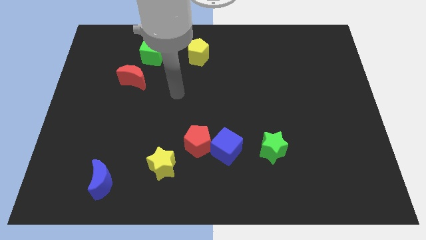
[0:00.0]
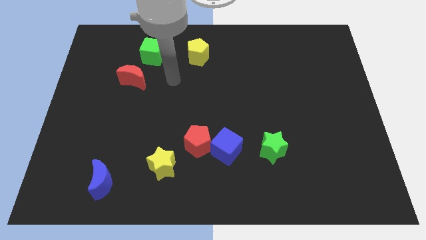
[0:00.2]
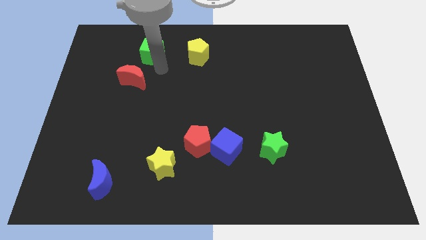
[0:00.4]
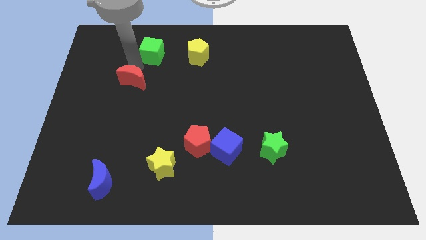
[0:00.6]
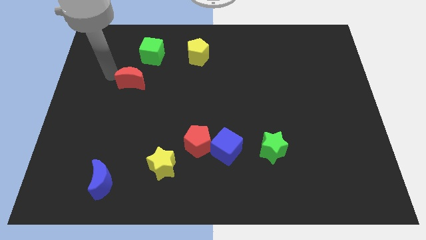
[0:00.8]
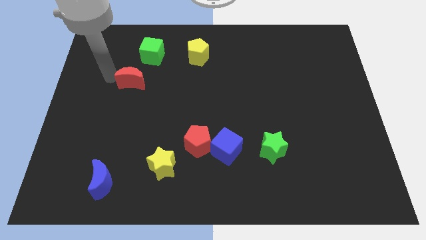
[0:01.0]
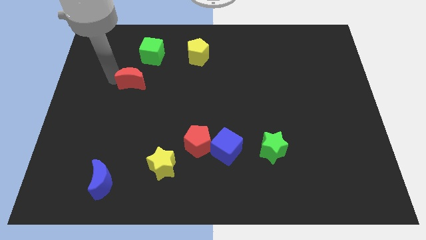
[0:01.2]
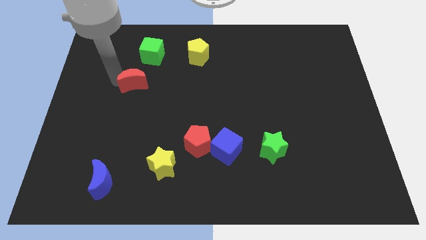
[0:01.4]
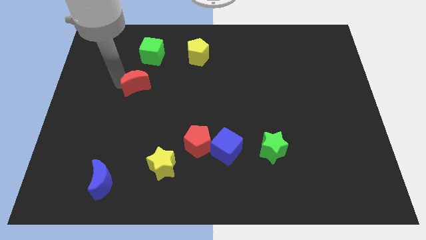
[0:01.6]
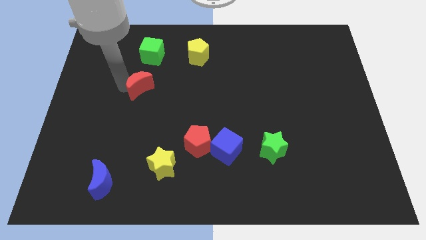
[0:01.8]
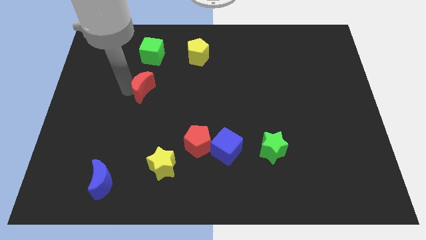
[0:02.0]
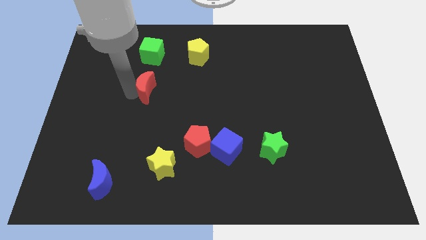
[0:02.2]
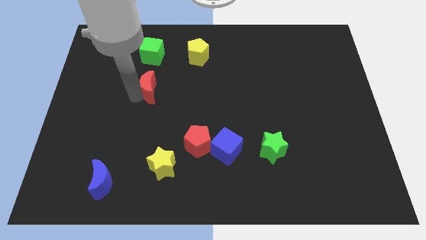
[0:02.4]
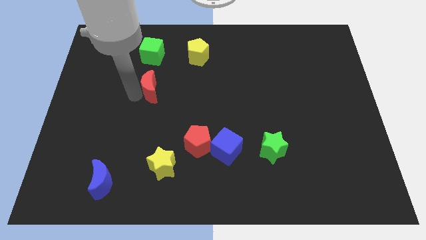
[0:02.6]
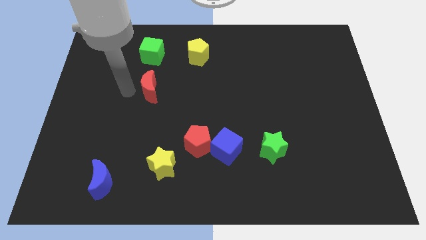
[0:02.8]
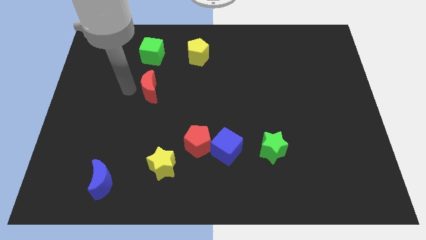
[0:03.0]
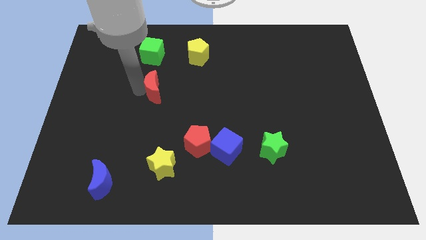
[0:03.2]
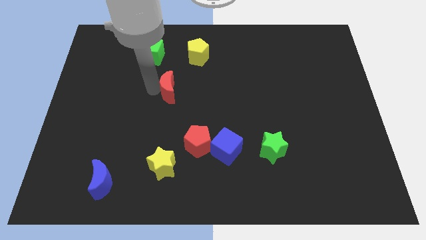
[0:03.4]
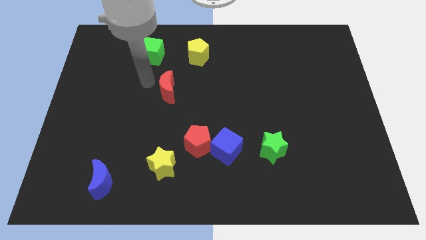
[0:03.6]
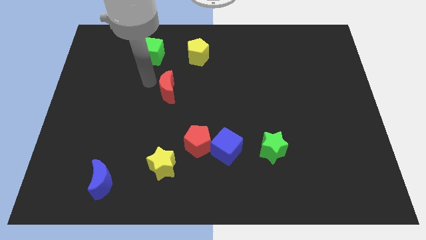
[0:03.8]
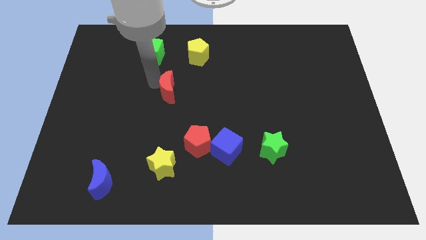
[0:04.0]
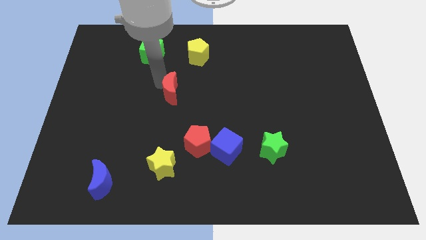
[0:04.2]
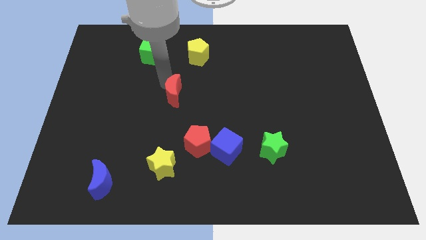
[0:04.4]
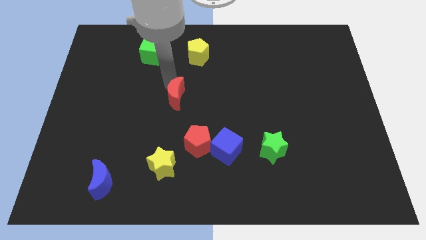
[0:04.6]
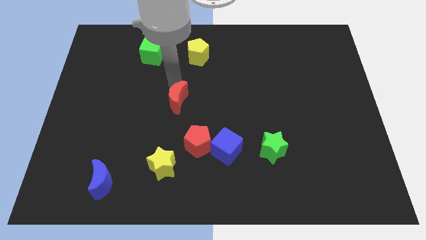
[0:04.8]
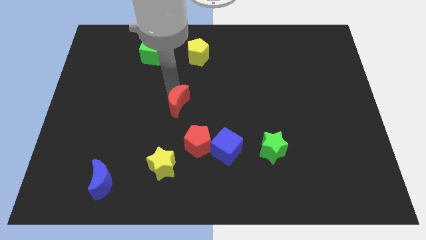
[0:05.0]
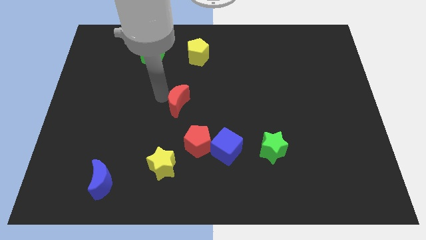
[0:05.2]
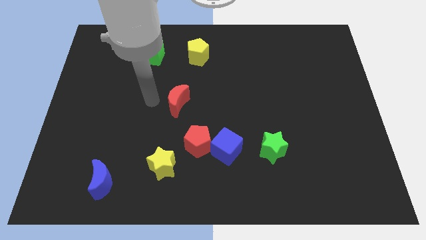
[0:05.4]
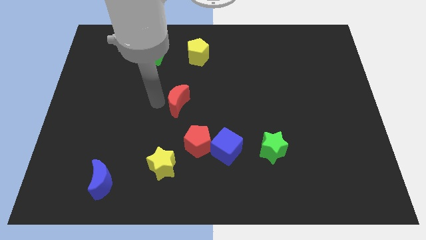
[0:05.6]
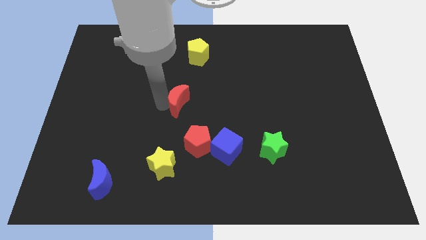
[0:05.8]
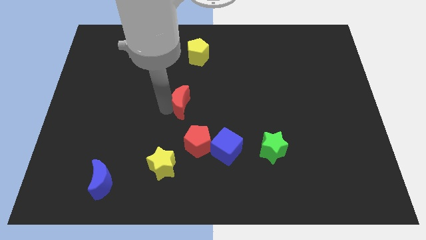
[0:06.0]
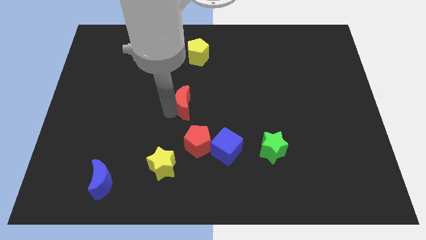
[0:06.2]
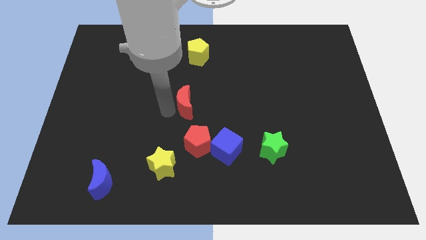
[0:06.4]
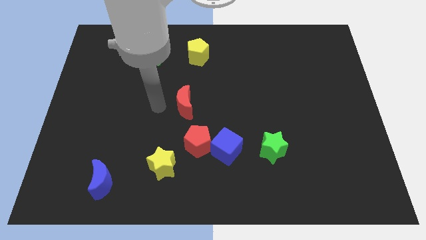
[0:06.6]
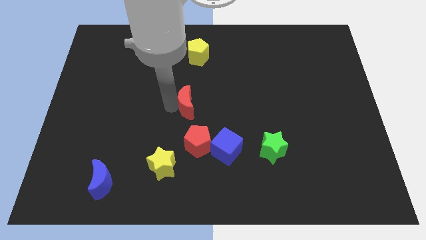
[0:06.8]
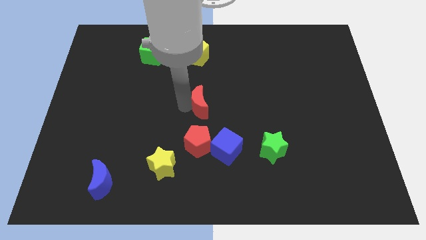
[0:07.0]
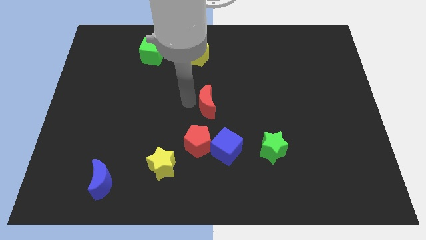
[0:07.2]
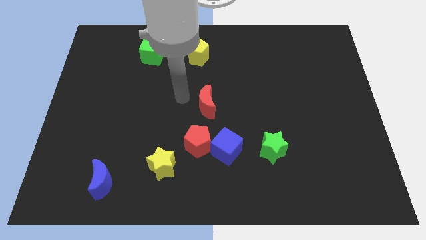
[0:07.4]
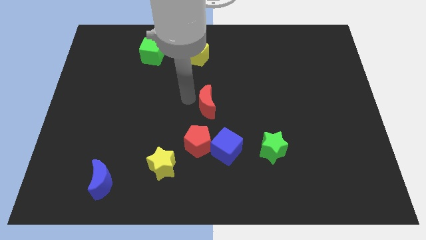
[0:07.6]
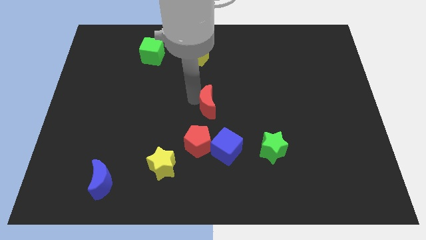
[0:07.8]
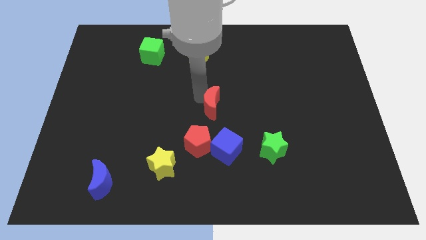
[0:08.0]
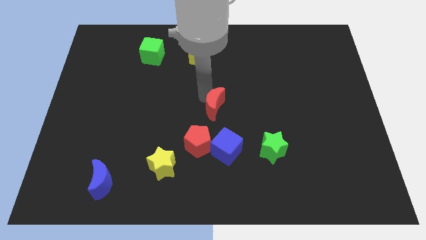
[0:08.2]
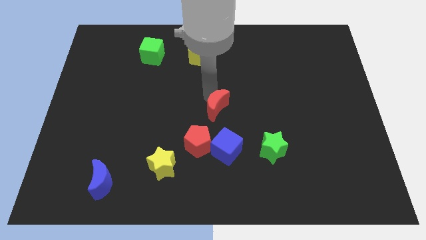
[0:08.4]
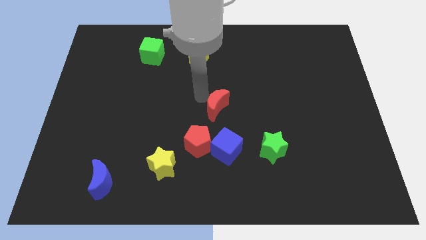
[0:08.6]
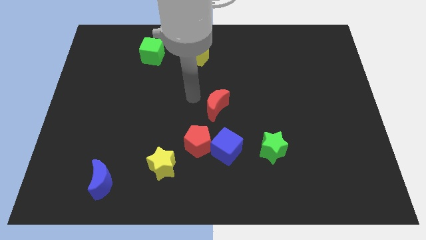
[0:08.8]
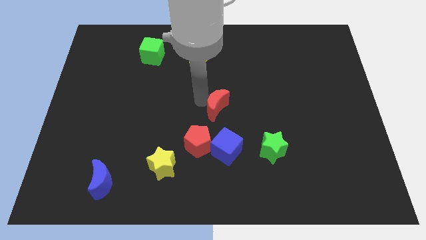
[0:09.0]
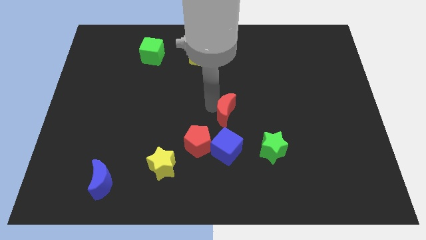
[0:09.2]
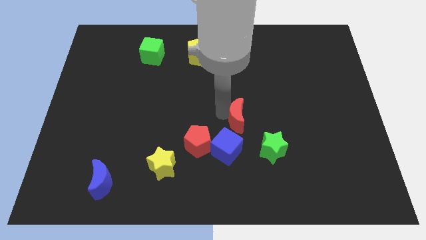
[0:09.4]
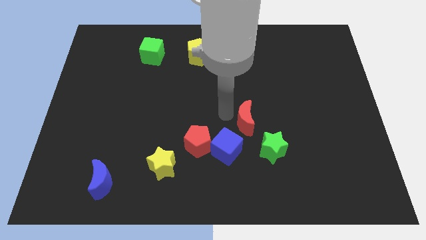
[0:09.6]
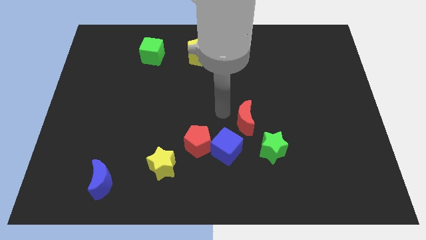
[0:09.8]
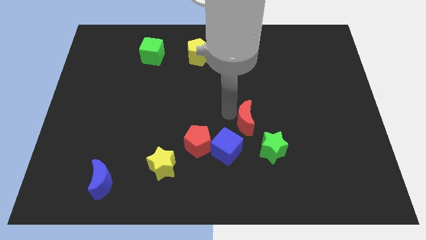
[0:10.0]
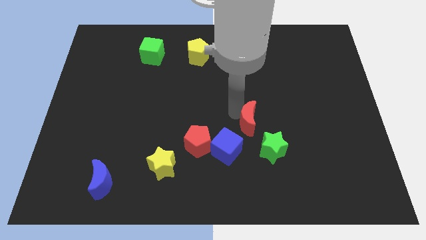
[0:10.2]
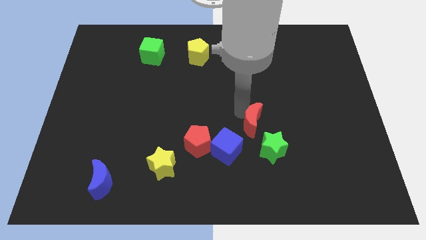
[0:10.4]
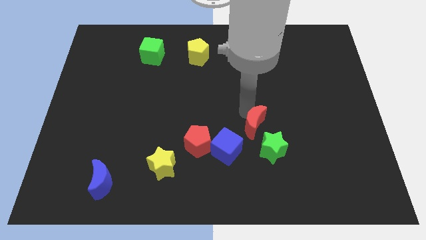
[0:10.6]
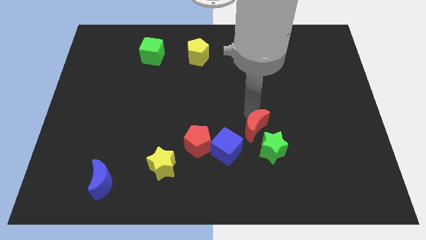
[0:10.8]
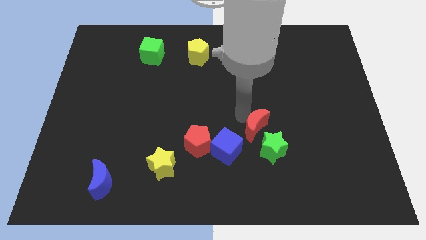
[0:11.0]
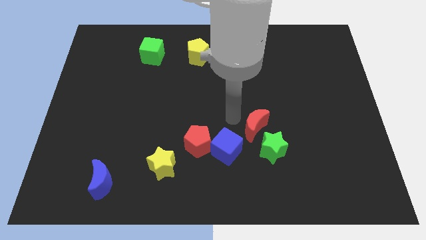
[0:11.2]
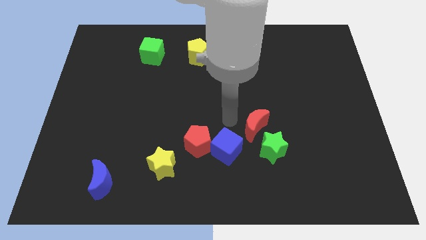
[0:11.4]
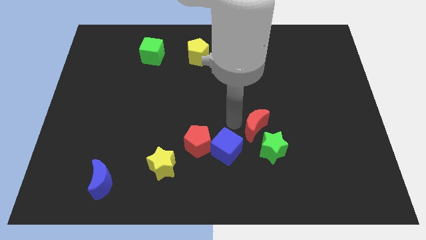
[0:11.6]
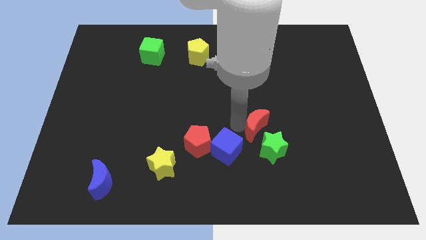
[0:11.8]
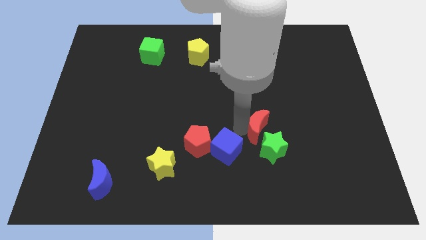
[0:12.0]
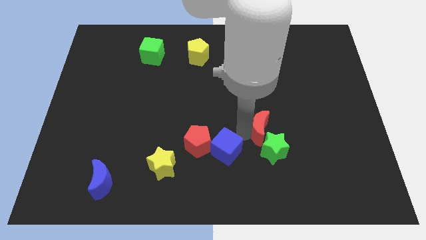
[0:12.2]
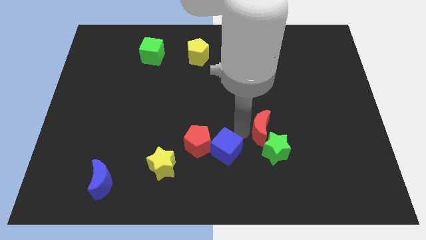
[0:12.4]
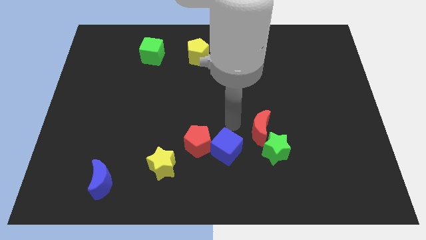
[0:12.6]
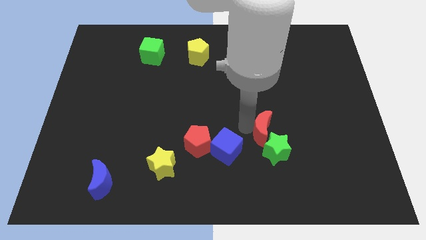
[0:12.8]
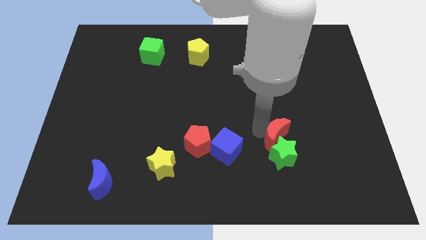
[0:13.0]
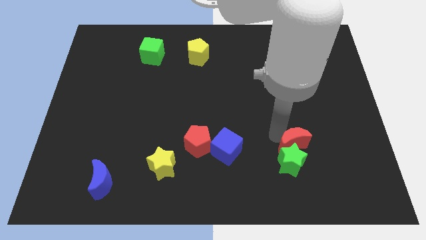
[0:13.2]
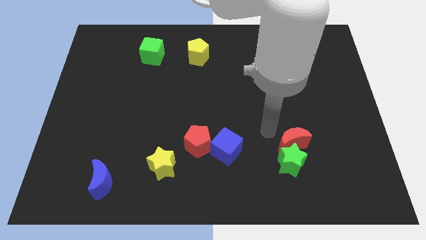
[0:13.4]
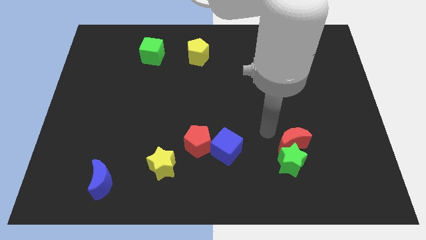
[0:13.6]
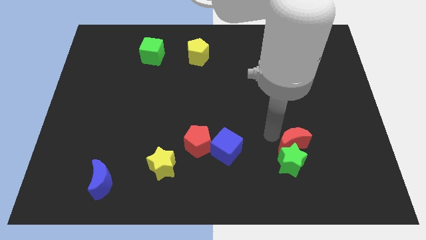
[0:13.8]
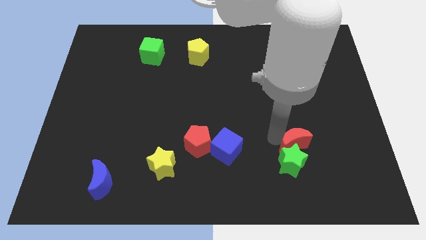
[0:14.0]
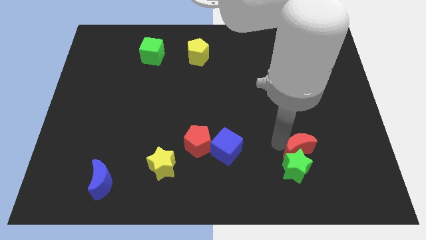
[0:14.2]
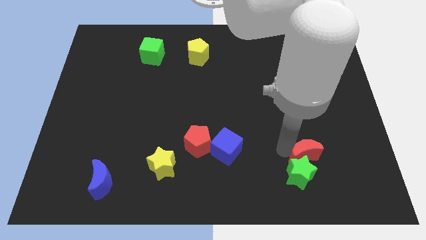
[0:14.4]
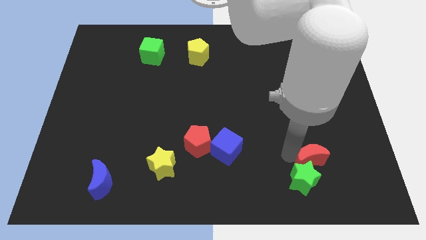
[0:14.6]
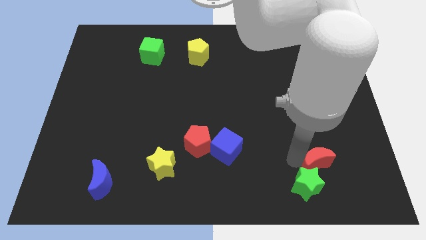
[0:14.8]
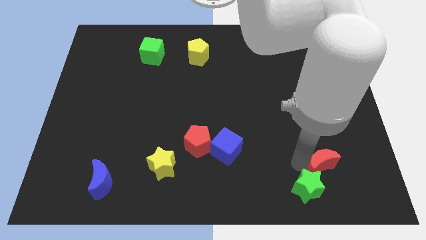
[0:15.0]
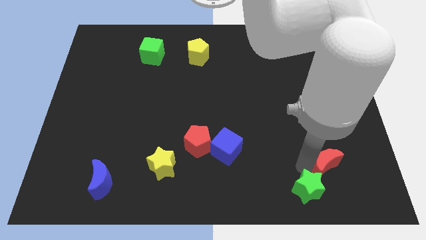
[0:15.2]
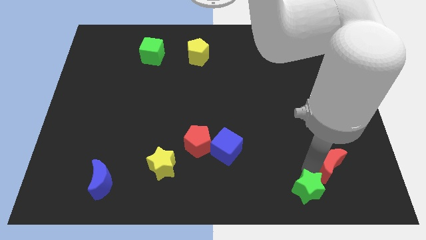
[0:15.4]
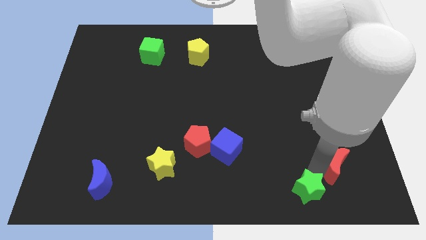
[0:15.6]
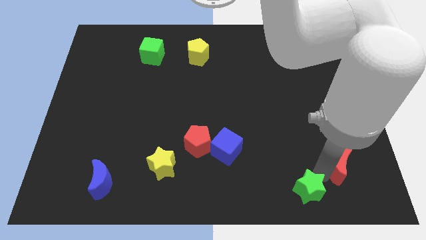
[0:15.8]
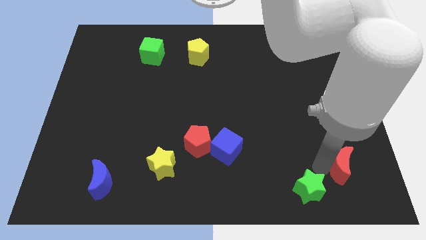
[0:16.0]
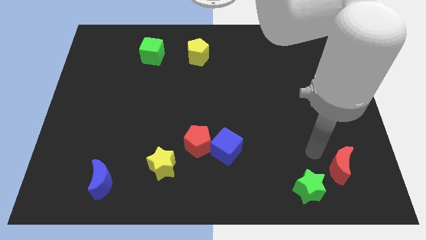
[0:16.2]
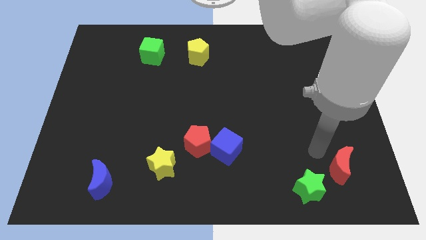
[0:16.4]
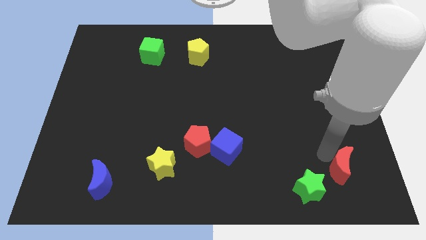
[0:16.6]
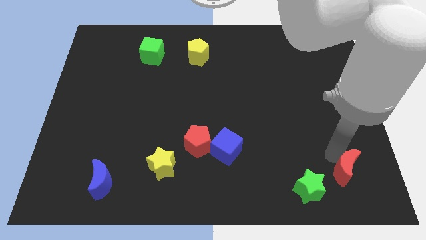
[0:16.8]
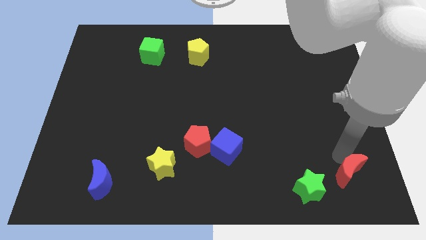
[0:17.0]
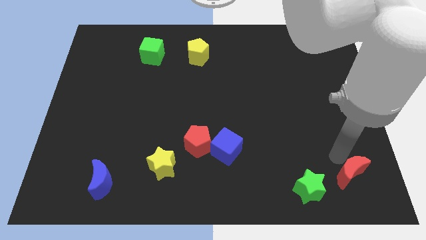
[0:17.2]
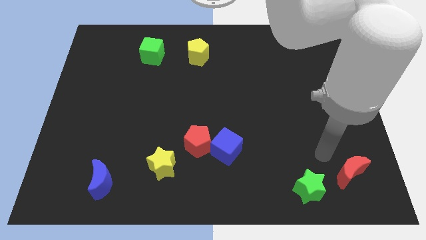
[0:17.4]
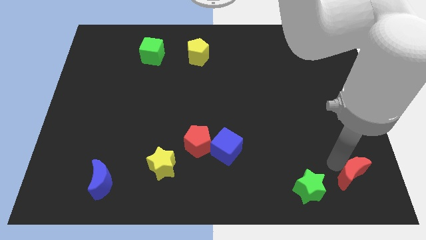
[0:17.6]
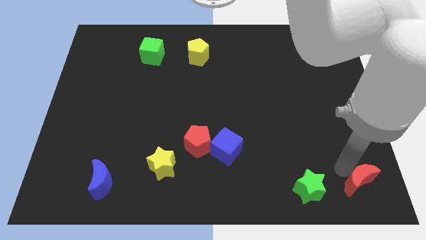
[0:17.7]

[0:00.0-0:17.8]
move the red moon to the bottom right corner
